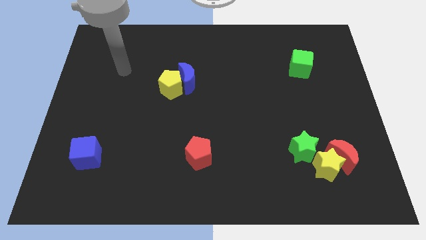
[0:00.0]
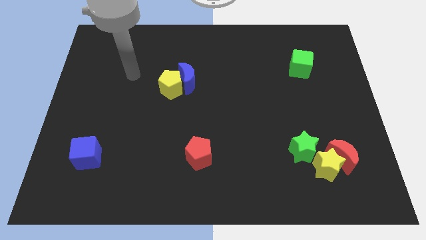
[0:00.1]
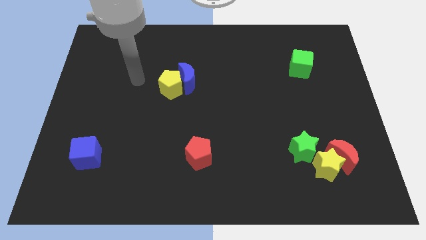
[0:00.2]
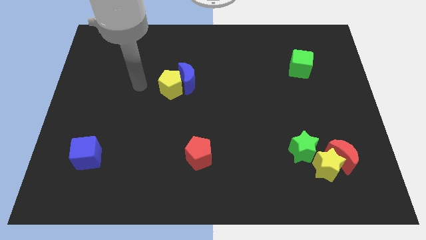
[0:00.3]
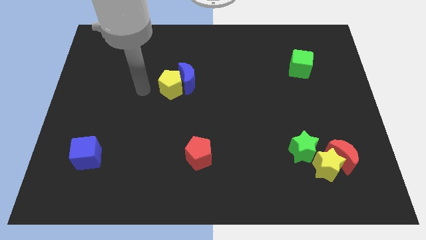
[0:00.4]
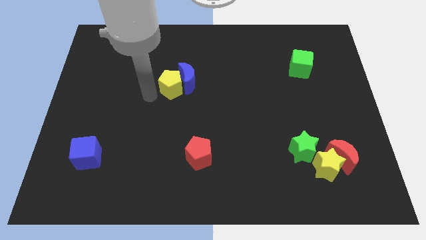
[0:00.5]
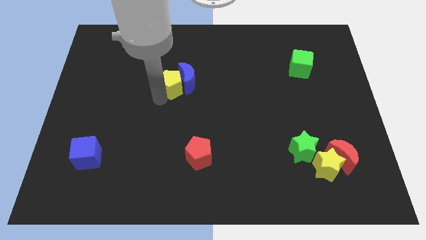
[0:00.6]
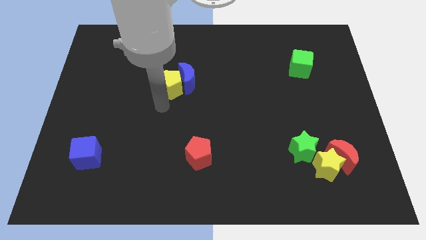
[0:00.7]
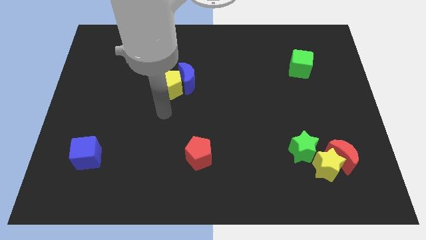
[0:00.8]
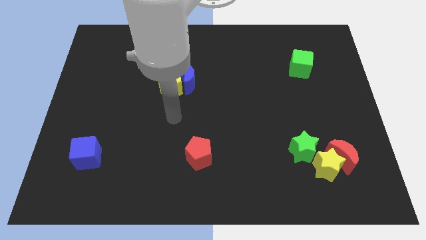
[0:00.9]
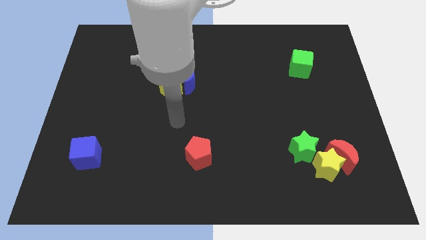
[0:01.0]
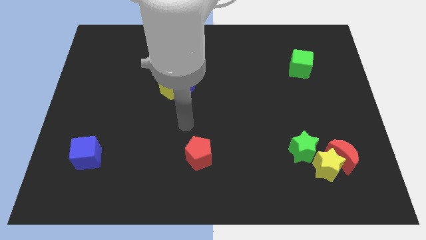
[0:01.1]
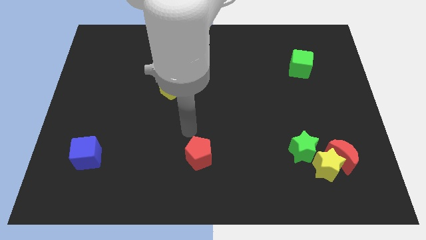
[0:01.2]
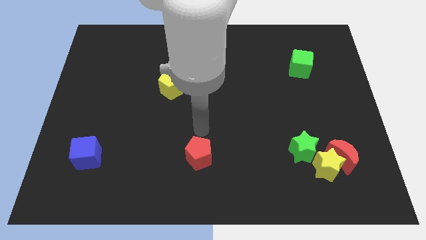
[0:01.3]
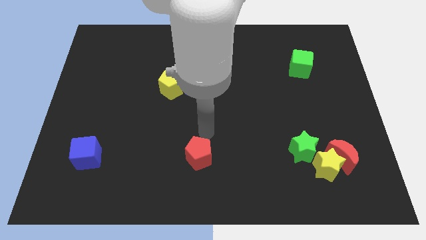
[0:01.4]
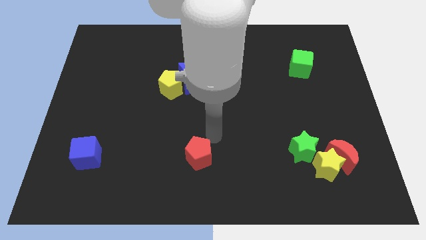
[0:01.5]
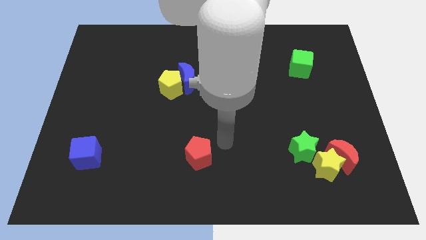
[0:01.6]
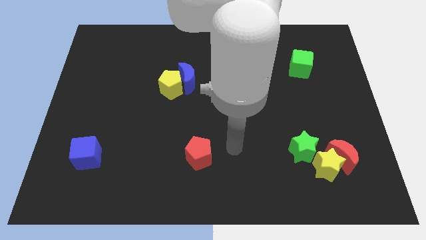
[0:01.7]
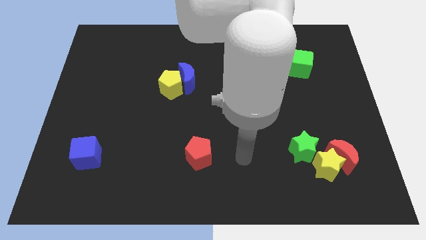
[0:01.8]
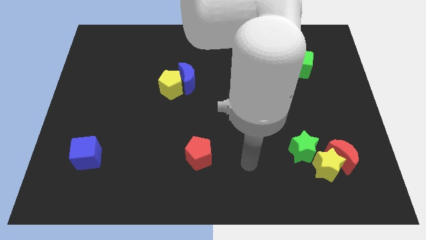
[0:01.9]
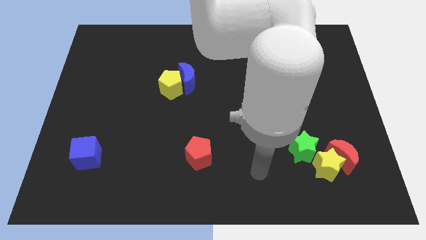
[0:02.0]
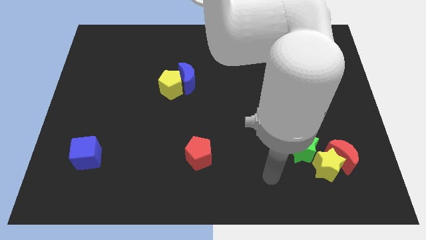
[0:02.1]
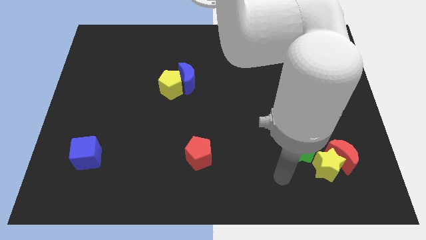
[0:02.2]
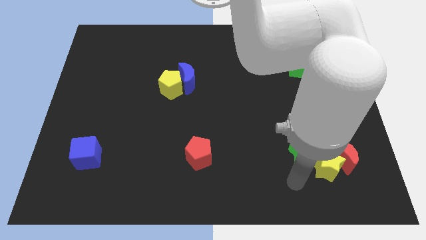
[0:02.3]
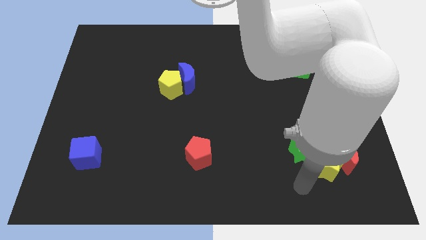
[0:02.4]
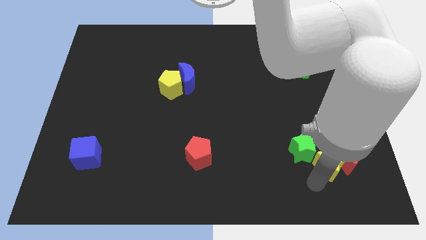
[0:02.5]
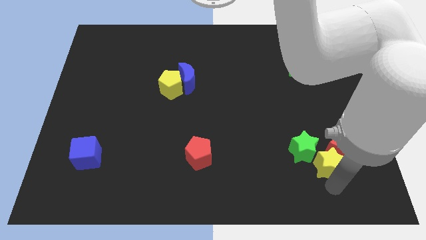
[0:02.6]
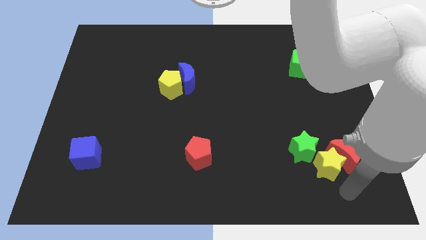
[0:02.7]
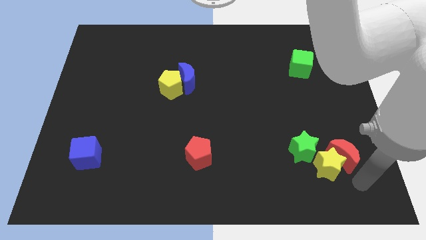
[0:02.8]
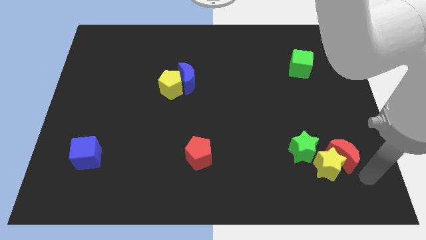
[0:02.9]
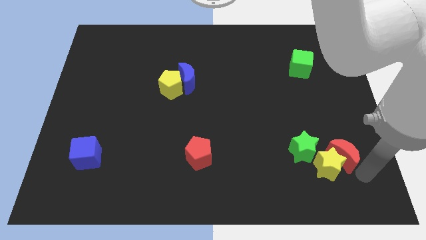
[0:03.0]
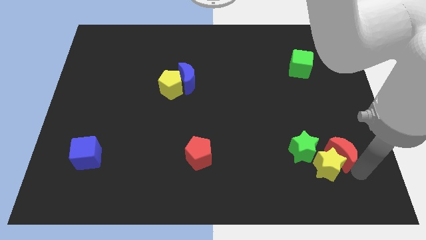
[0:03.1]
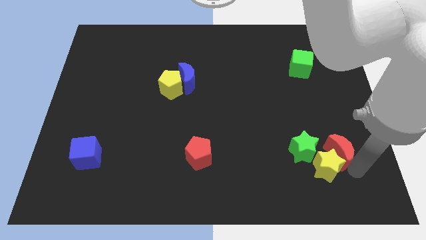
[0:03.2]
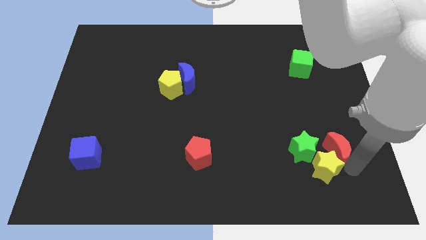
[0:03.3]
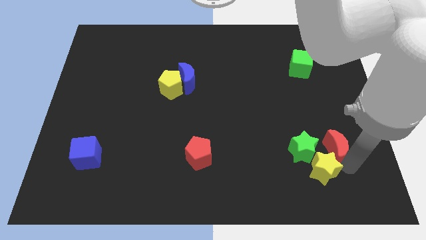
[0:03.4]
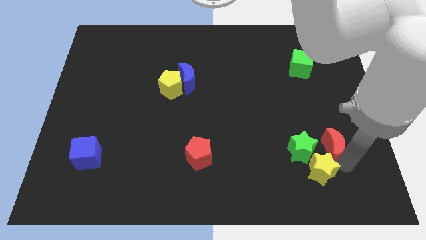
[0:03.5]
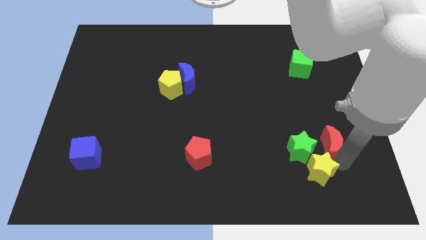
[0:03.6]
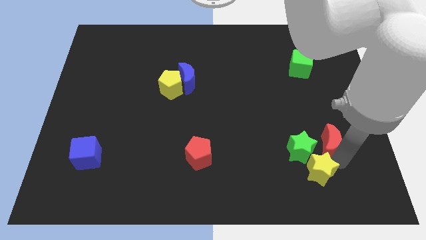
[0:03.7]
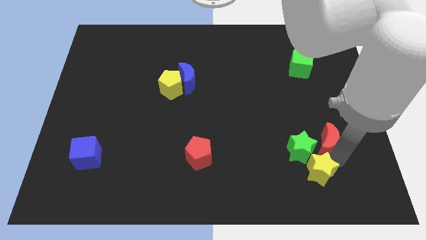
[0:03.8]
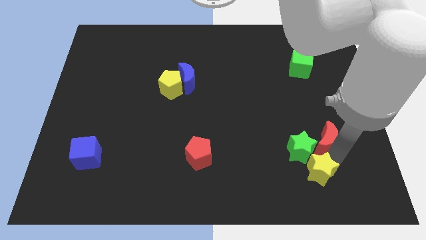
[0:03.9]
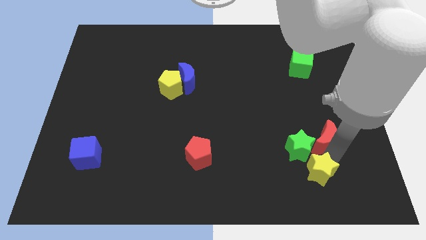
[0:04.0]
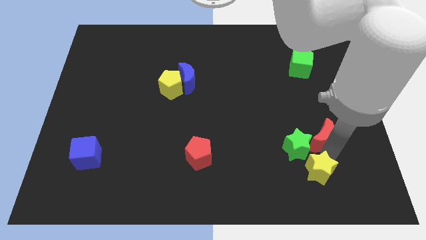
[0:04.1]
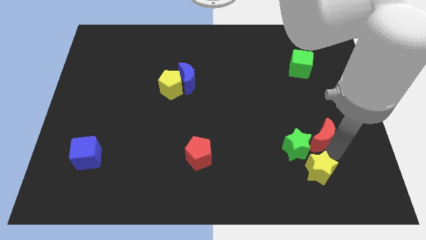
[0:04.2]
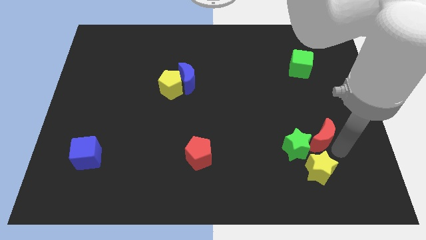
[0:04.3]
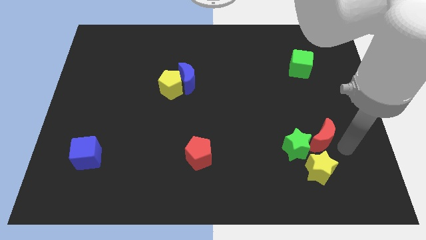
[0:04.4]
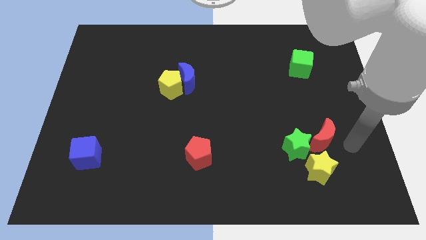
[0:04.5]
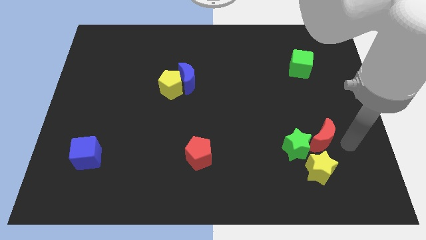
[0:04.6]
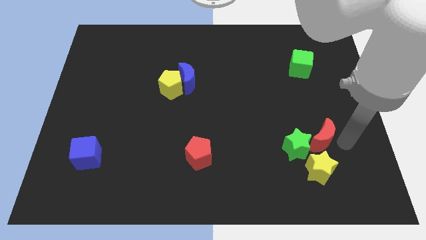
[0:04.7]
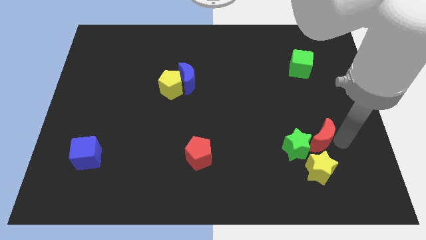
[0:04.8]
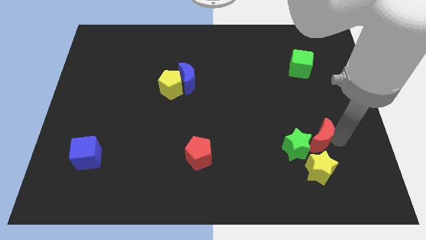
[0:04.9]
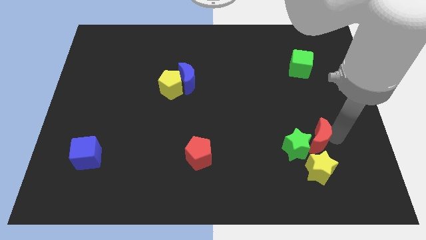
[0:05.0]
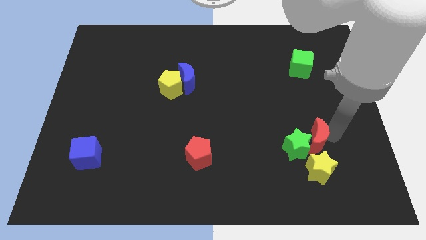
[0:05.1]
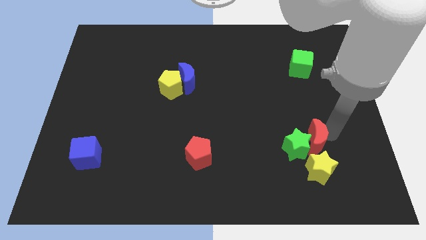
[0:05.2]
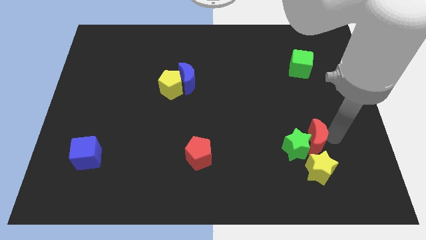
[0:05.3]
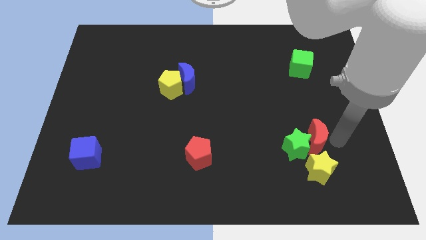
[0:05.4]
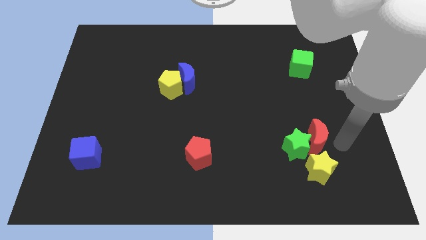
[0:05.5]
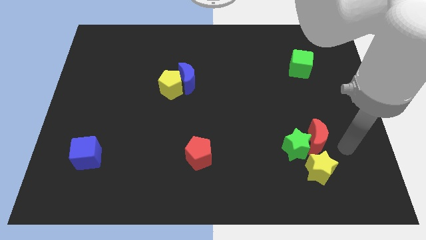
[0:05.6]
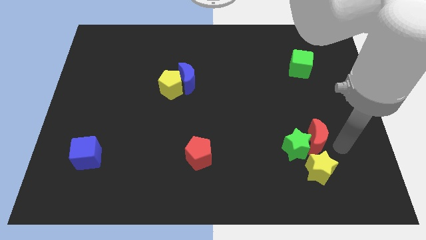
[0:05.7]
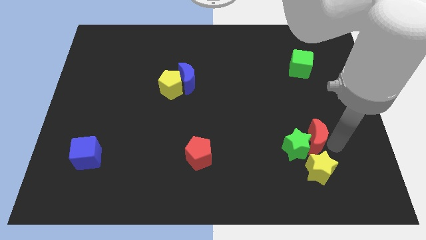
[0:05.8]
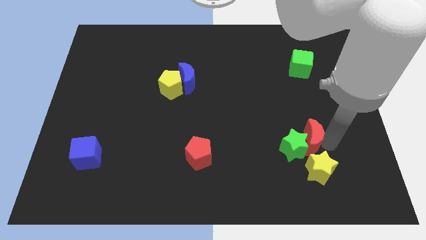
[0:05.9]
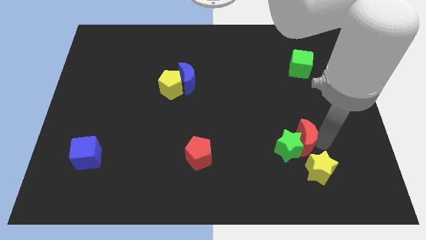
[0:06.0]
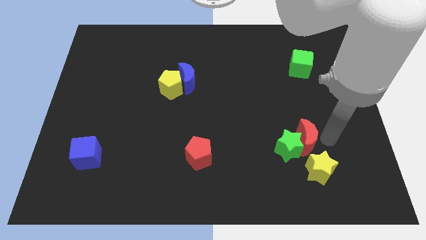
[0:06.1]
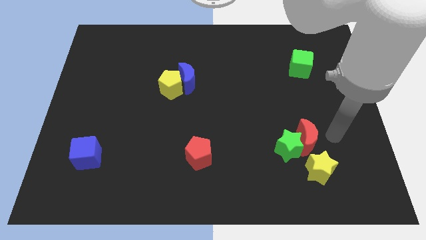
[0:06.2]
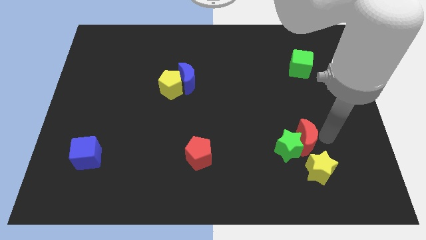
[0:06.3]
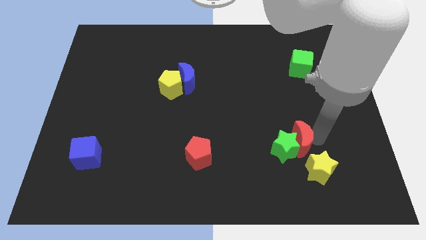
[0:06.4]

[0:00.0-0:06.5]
push the red moon slightly left

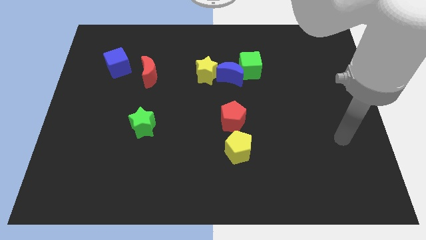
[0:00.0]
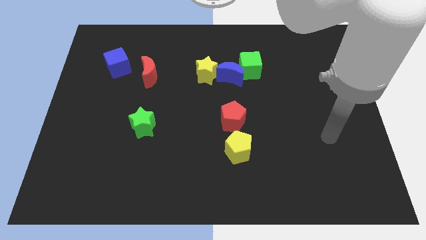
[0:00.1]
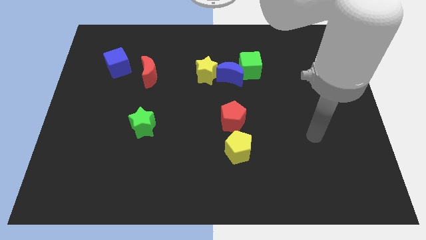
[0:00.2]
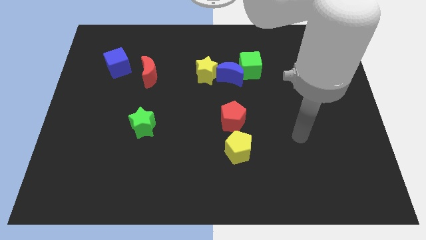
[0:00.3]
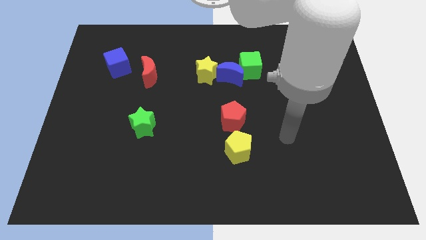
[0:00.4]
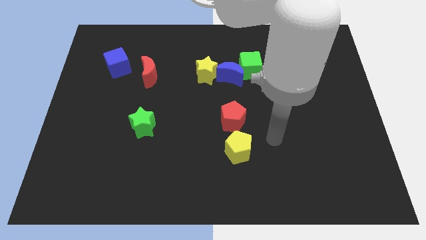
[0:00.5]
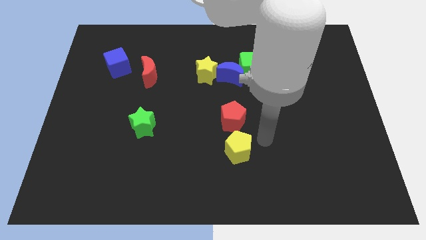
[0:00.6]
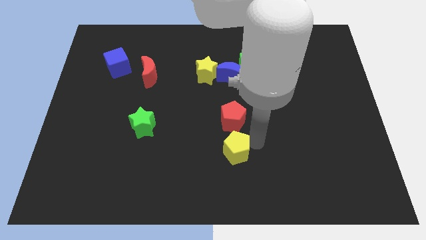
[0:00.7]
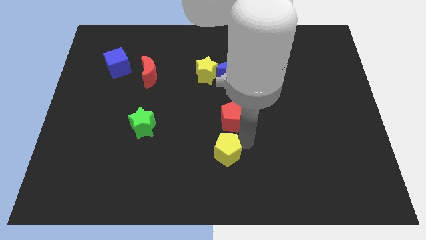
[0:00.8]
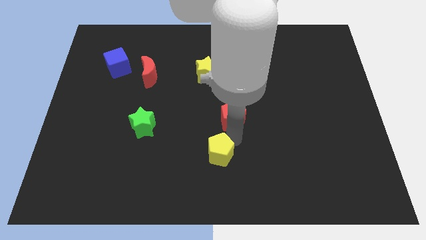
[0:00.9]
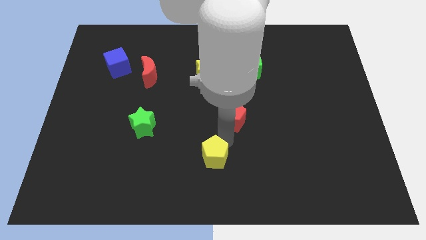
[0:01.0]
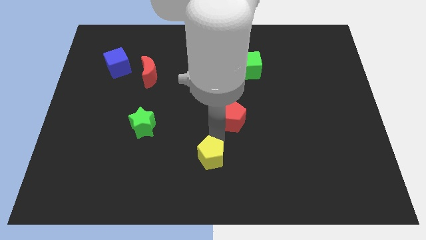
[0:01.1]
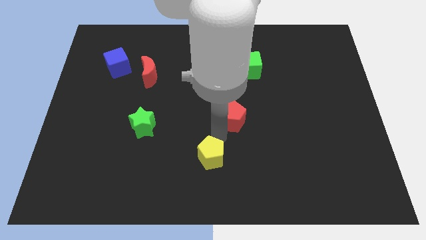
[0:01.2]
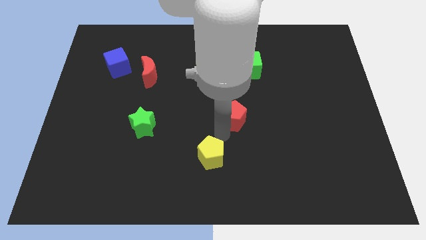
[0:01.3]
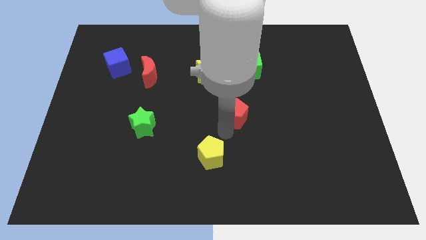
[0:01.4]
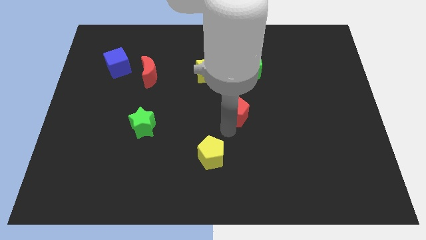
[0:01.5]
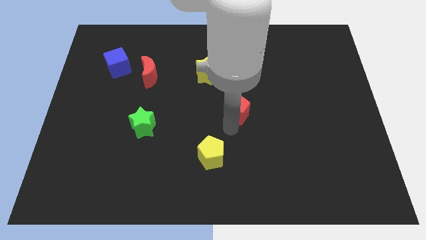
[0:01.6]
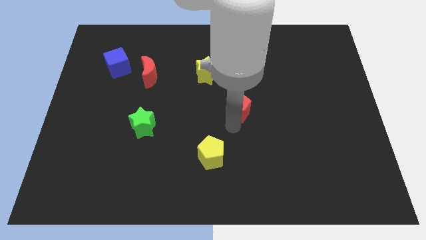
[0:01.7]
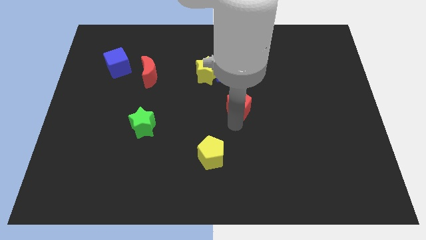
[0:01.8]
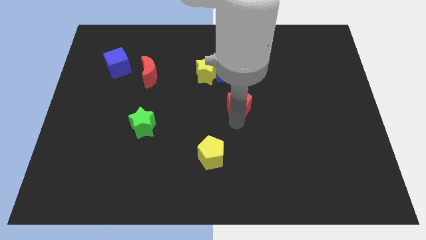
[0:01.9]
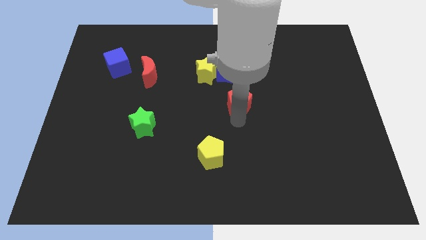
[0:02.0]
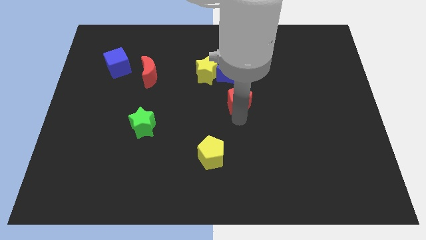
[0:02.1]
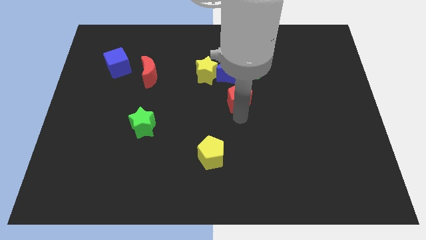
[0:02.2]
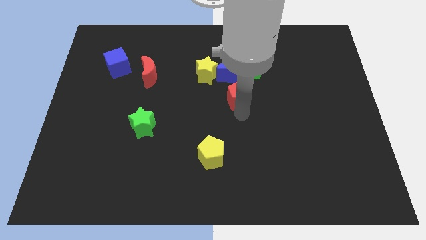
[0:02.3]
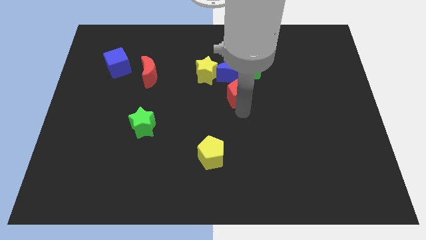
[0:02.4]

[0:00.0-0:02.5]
push the red pentagon slightly upwards
